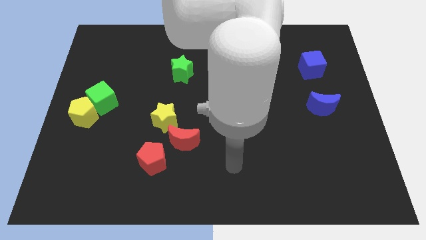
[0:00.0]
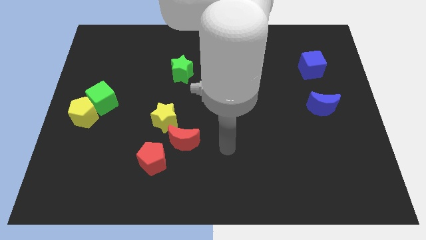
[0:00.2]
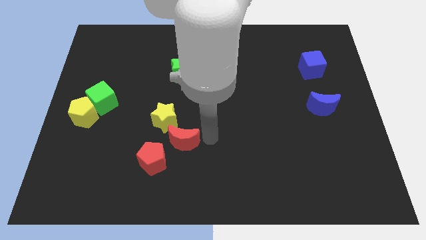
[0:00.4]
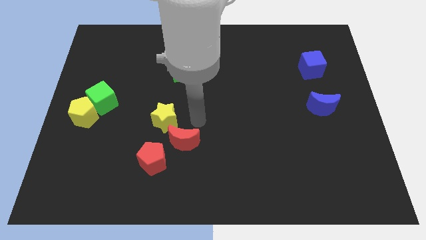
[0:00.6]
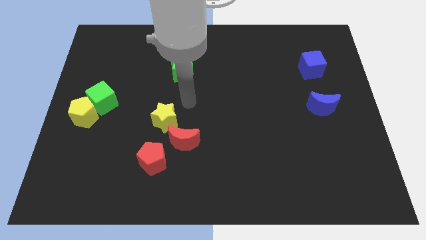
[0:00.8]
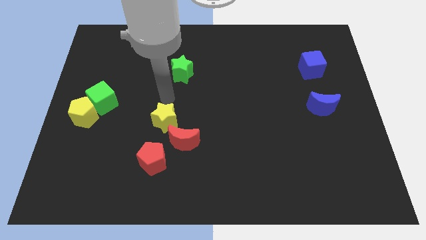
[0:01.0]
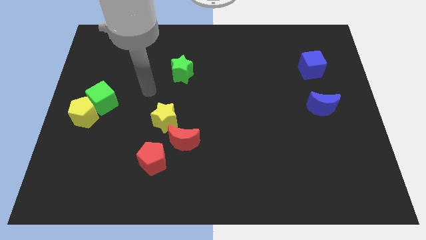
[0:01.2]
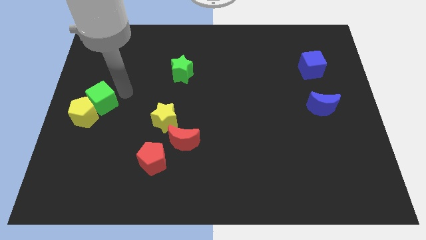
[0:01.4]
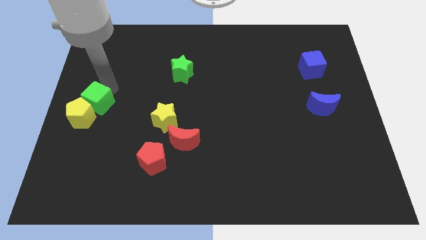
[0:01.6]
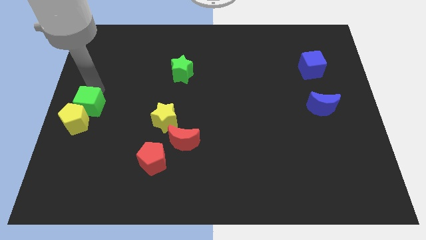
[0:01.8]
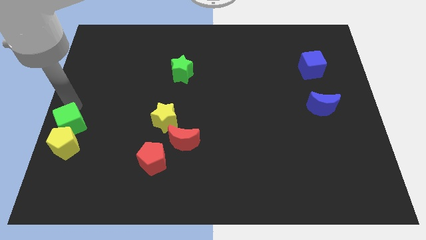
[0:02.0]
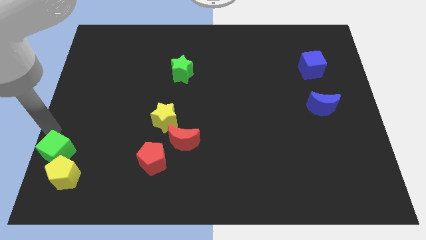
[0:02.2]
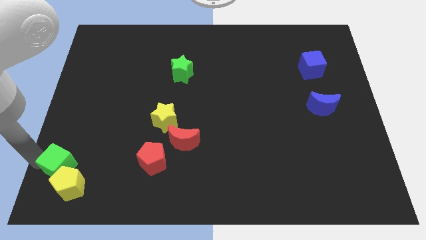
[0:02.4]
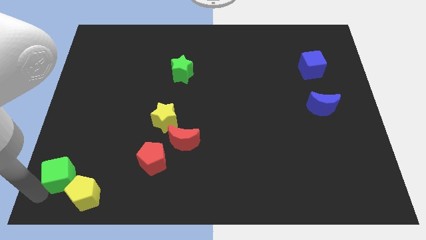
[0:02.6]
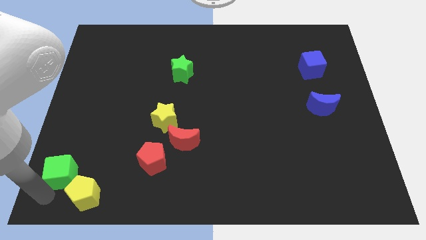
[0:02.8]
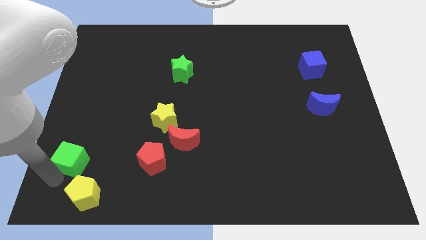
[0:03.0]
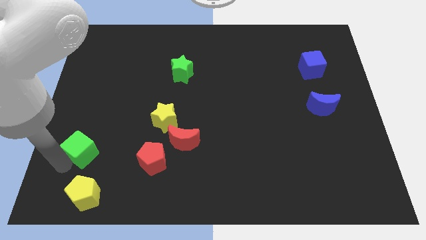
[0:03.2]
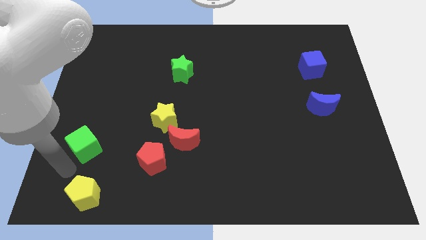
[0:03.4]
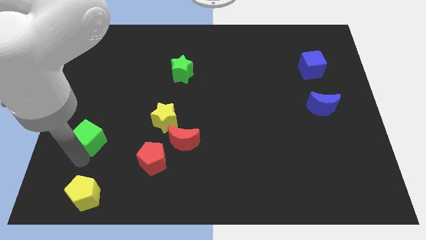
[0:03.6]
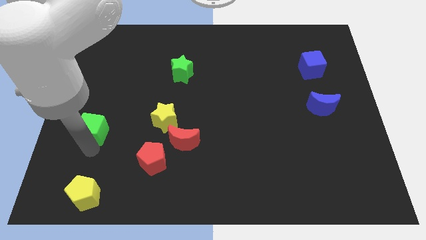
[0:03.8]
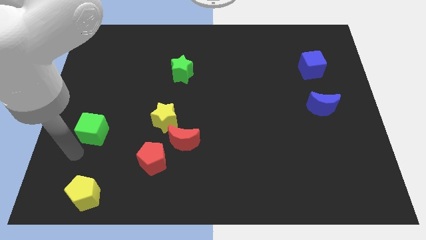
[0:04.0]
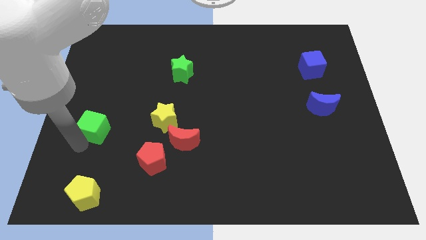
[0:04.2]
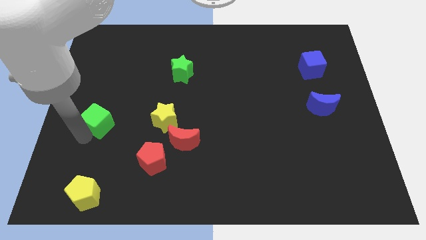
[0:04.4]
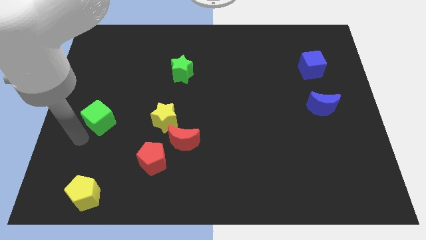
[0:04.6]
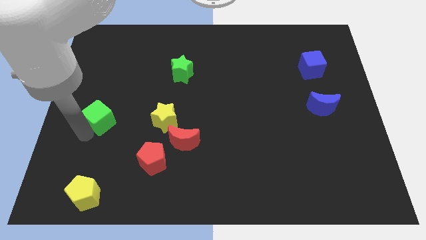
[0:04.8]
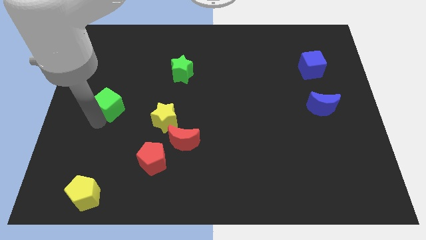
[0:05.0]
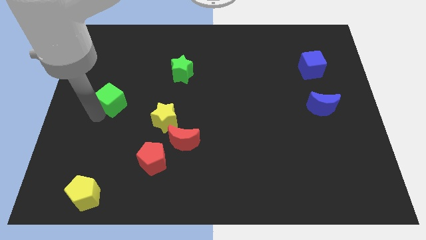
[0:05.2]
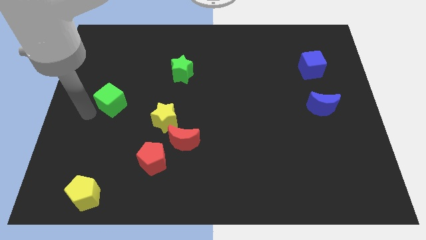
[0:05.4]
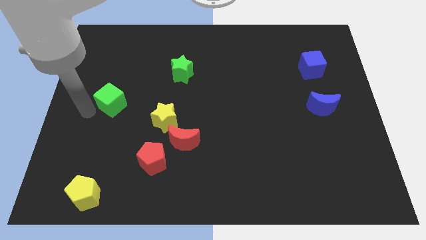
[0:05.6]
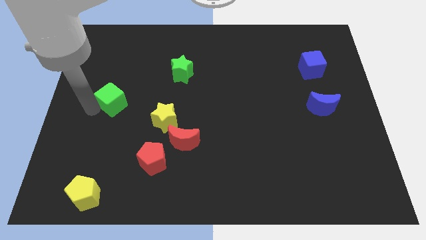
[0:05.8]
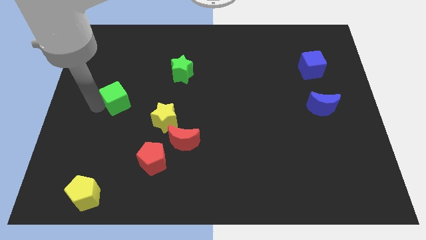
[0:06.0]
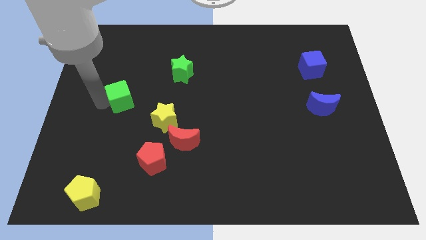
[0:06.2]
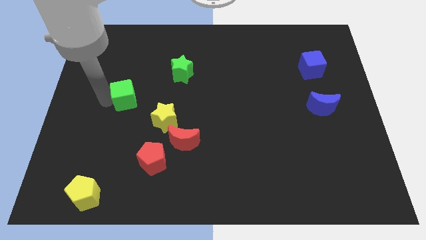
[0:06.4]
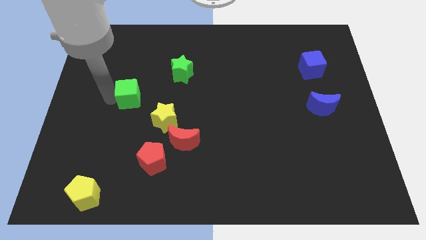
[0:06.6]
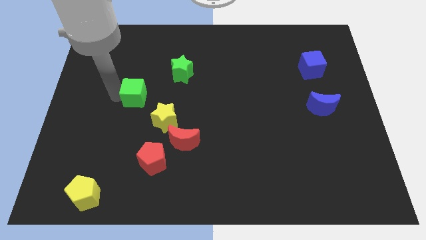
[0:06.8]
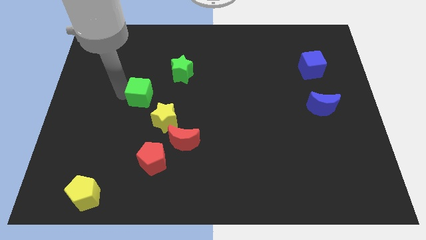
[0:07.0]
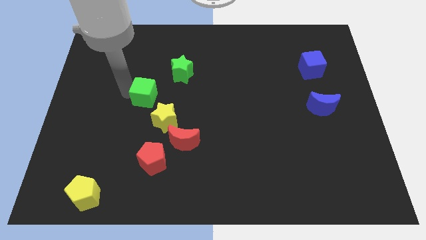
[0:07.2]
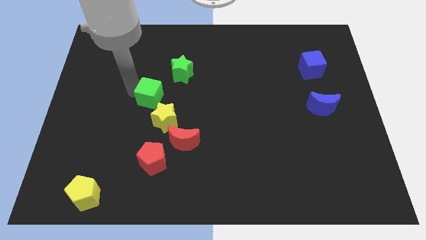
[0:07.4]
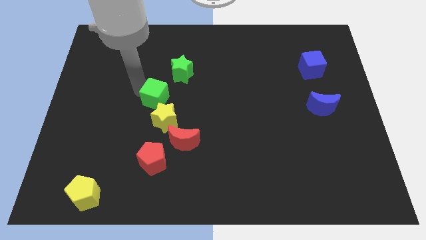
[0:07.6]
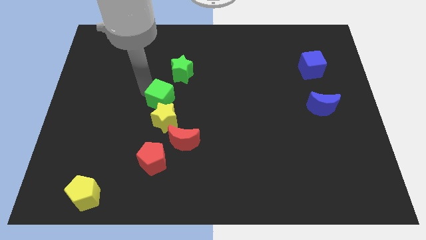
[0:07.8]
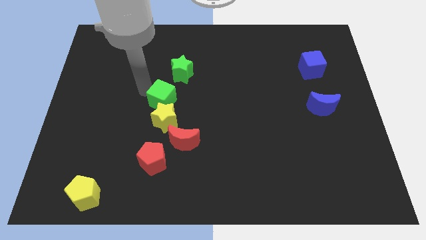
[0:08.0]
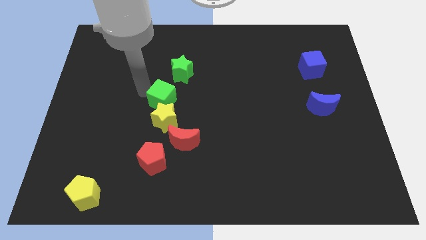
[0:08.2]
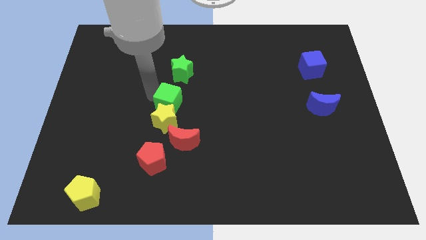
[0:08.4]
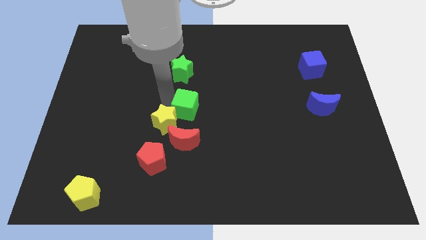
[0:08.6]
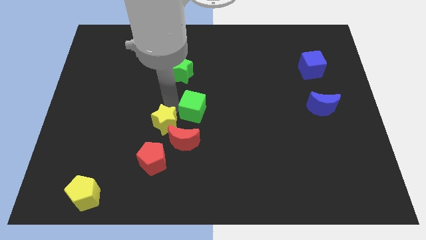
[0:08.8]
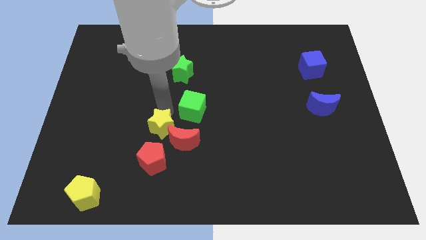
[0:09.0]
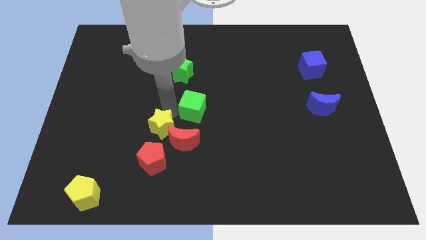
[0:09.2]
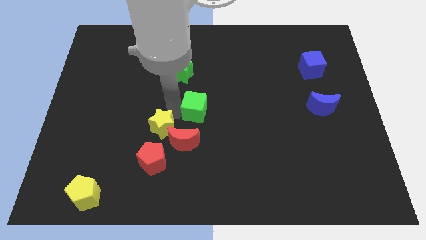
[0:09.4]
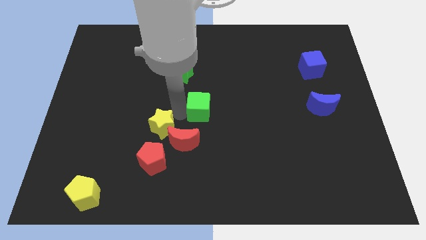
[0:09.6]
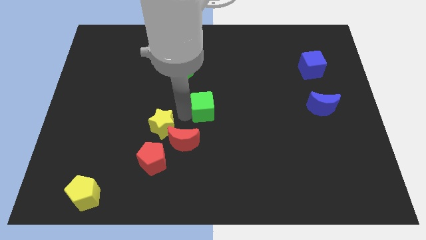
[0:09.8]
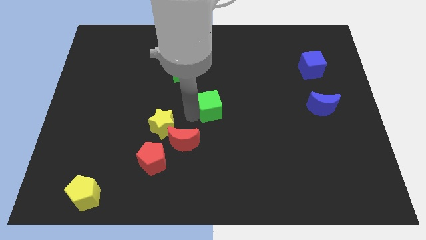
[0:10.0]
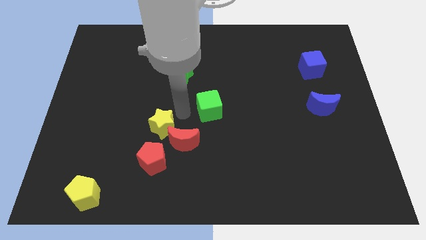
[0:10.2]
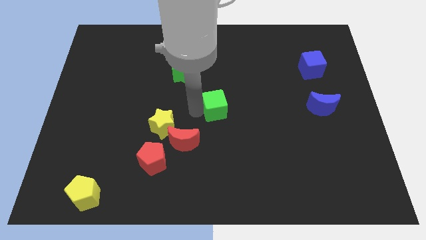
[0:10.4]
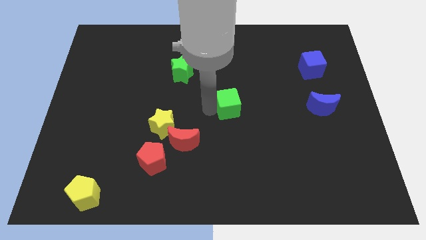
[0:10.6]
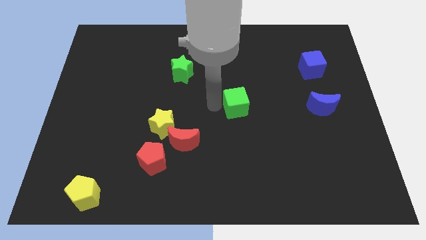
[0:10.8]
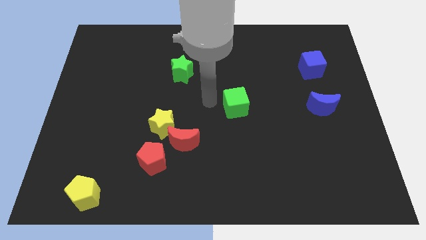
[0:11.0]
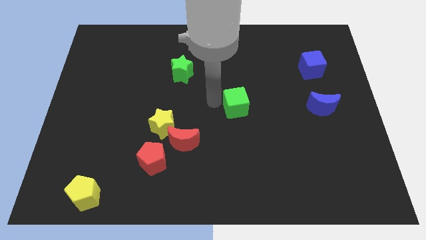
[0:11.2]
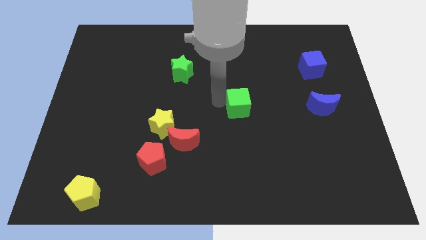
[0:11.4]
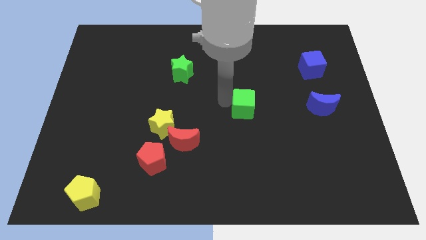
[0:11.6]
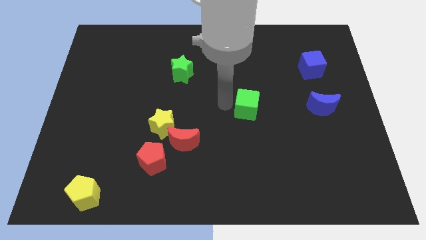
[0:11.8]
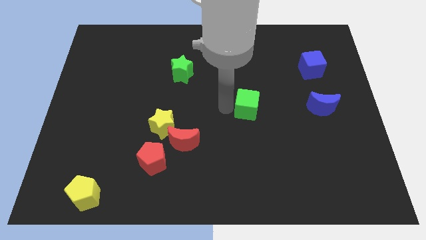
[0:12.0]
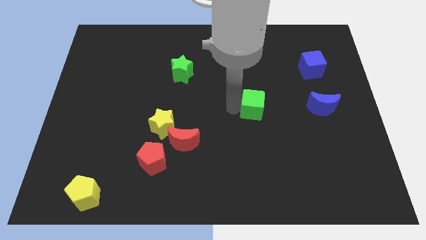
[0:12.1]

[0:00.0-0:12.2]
put the green cube to the left of the blue moon

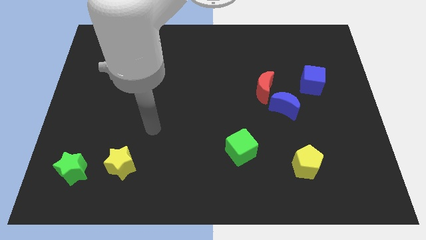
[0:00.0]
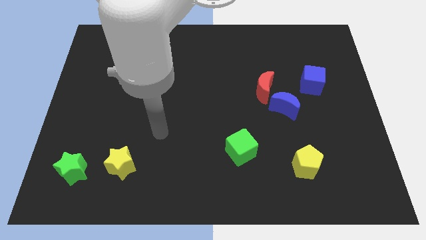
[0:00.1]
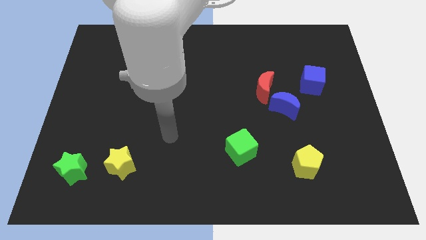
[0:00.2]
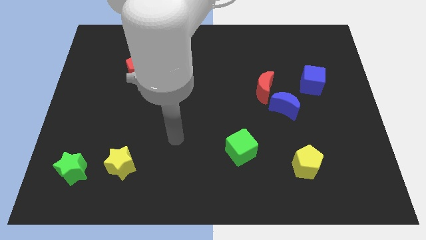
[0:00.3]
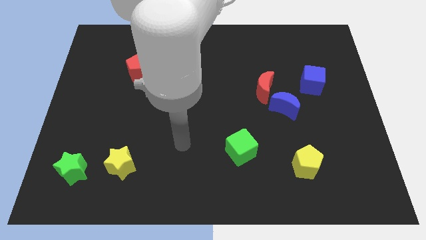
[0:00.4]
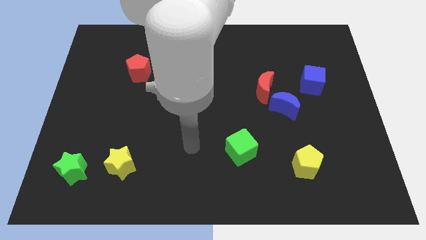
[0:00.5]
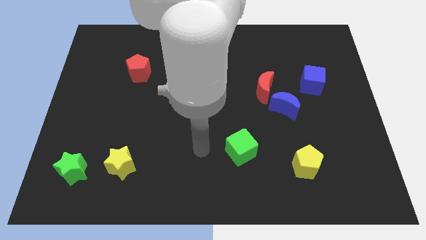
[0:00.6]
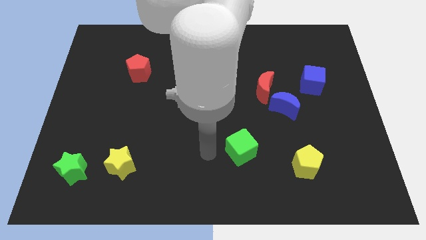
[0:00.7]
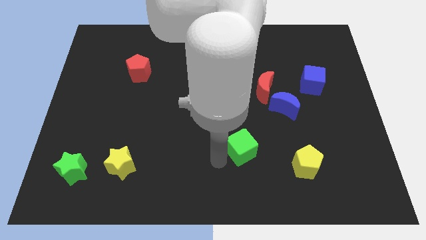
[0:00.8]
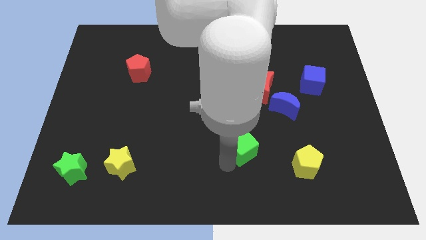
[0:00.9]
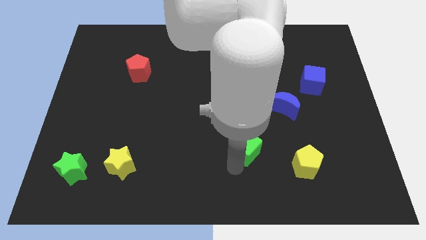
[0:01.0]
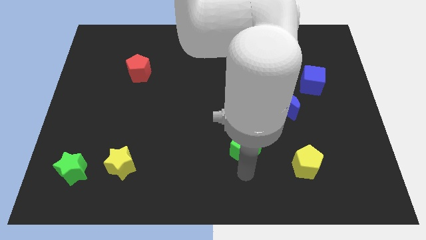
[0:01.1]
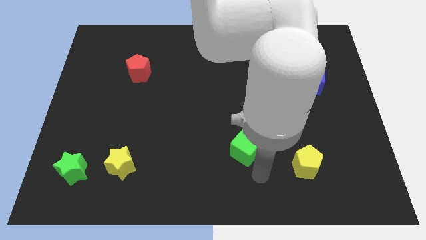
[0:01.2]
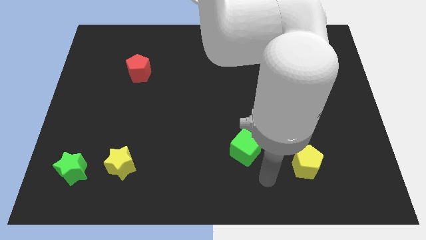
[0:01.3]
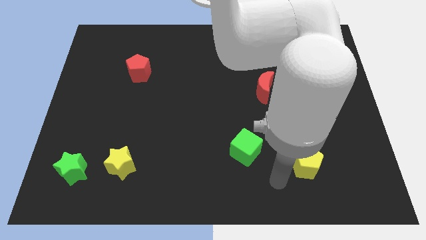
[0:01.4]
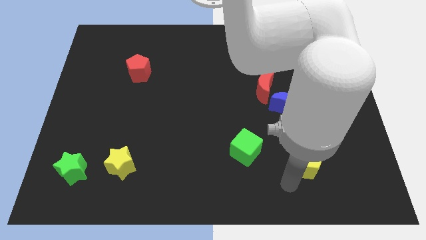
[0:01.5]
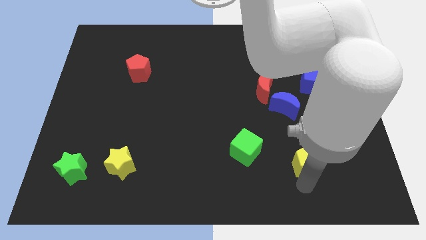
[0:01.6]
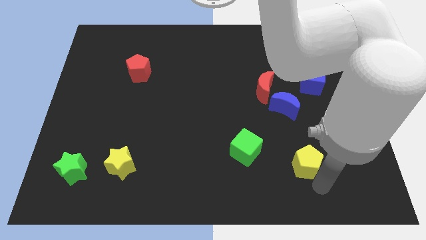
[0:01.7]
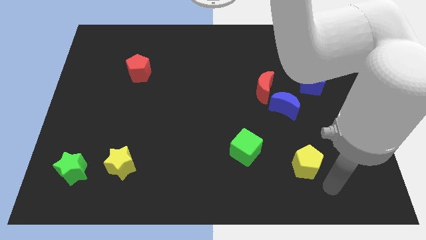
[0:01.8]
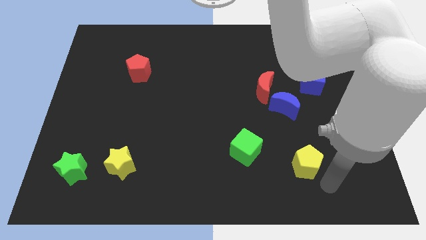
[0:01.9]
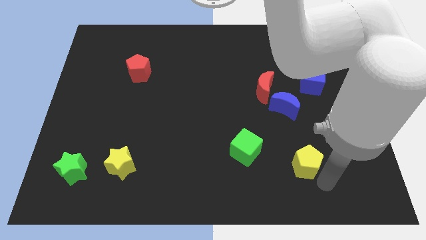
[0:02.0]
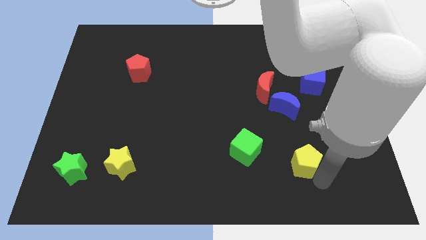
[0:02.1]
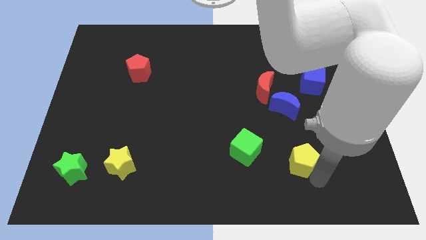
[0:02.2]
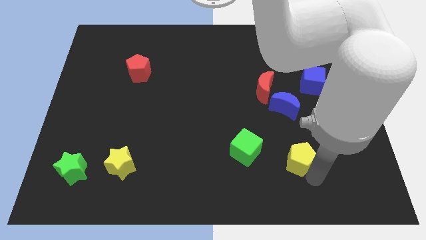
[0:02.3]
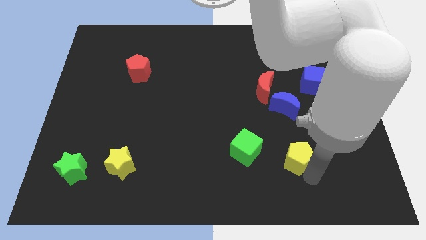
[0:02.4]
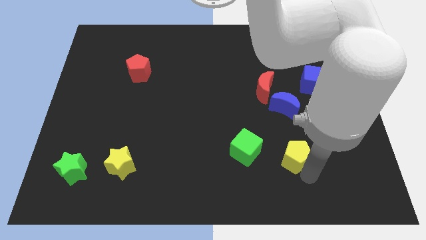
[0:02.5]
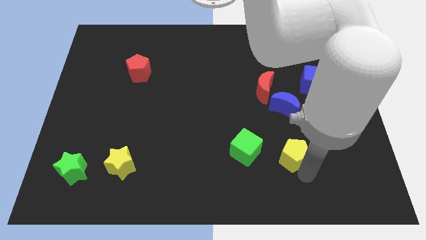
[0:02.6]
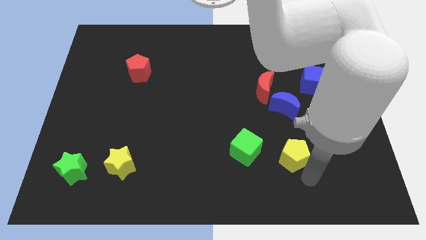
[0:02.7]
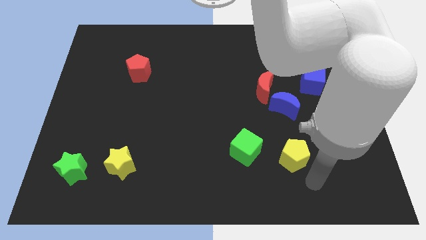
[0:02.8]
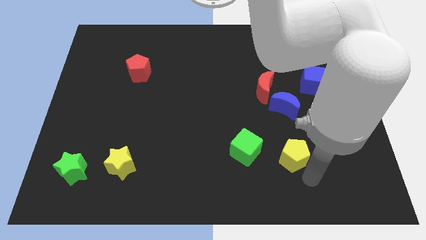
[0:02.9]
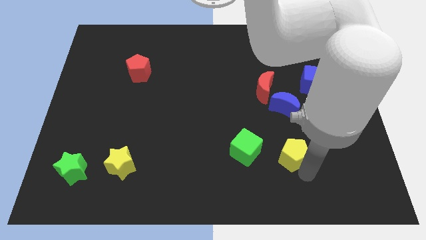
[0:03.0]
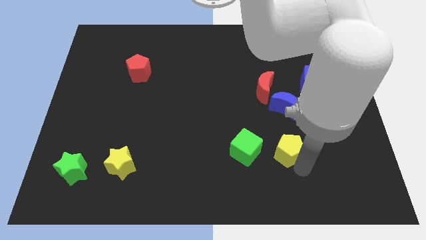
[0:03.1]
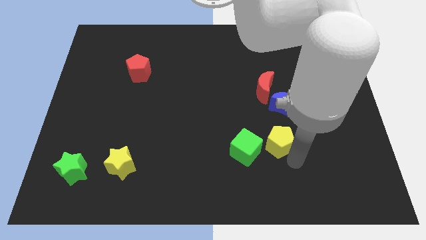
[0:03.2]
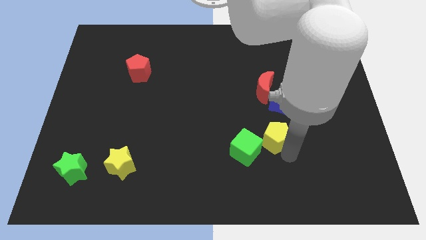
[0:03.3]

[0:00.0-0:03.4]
move the yellow pentagon diagonally down and to the left of the blue moon
